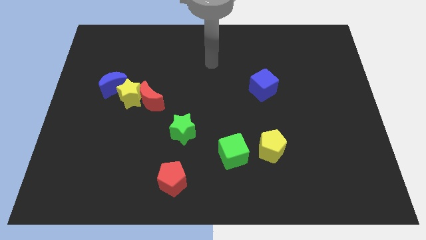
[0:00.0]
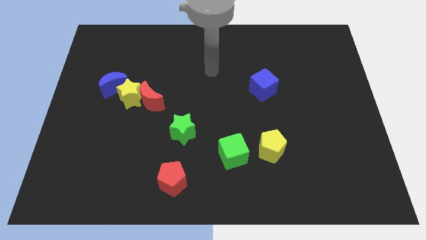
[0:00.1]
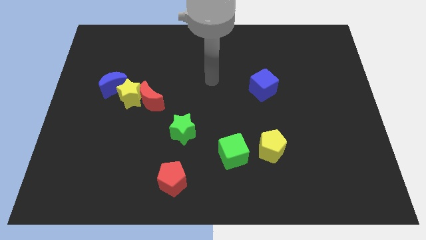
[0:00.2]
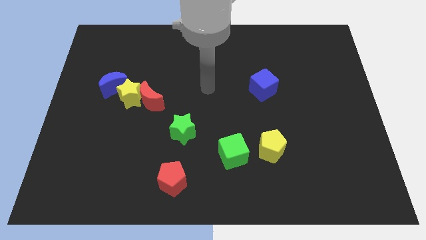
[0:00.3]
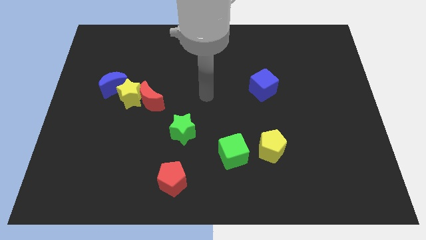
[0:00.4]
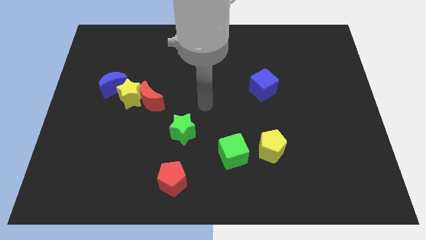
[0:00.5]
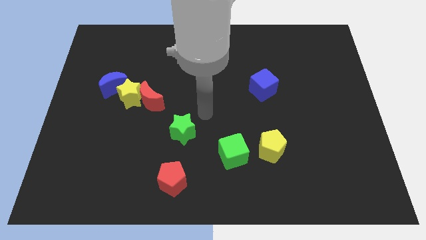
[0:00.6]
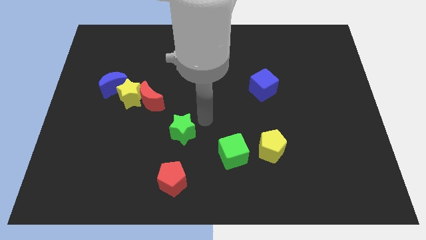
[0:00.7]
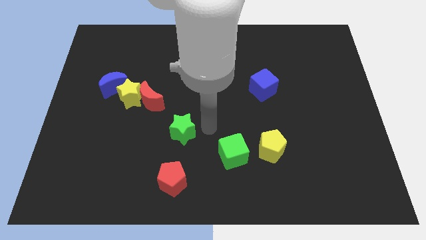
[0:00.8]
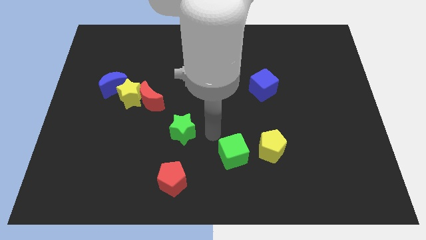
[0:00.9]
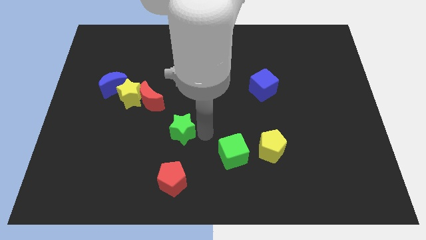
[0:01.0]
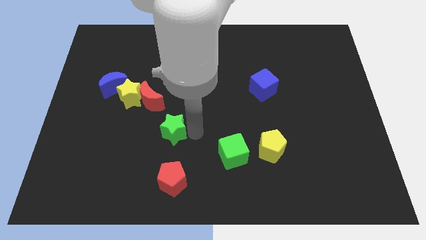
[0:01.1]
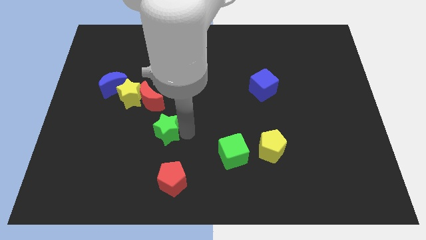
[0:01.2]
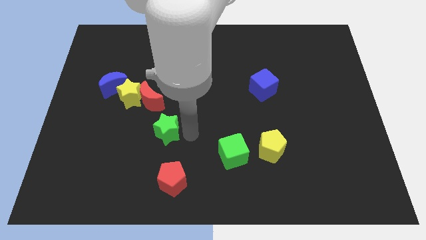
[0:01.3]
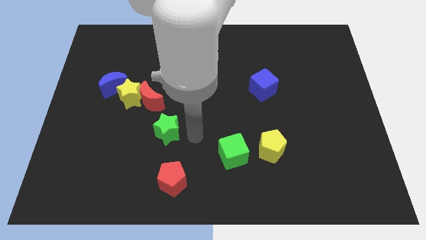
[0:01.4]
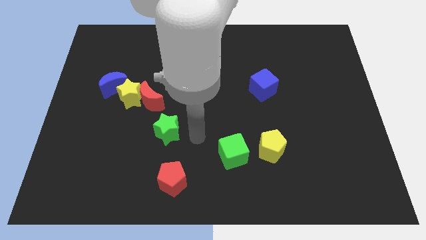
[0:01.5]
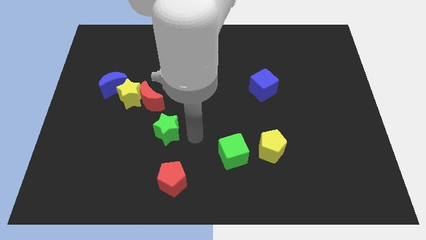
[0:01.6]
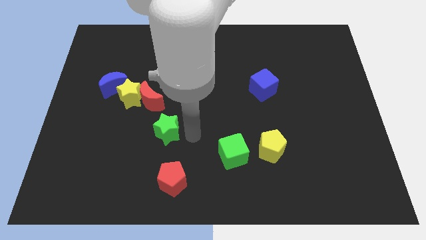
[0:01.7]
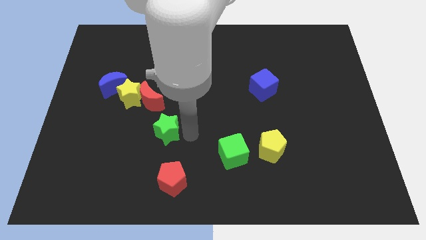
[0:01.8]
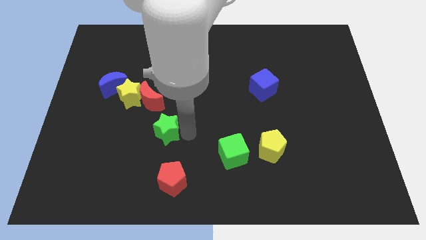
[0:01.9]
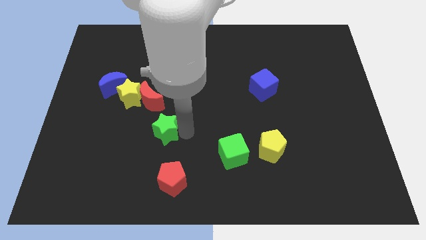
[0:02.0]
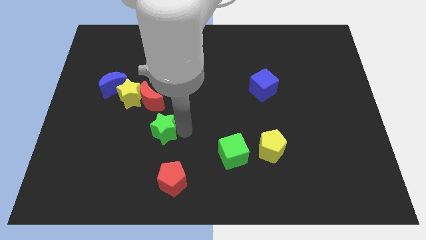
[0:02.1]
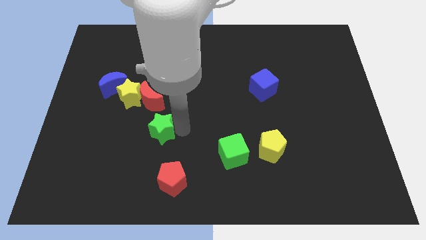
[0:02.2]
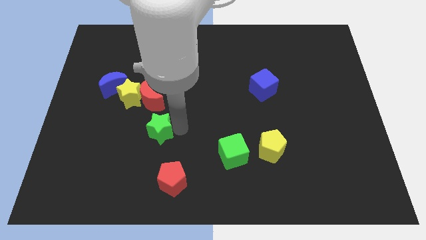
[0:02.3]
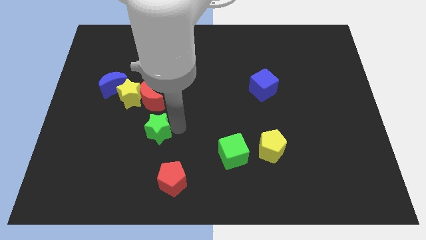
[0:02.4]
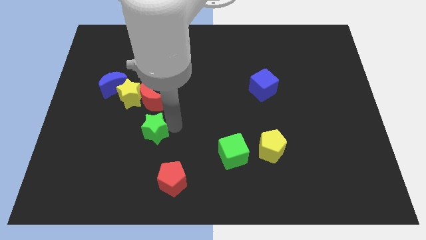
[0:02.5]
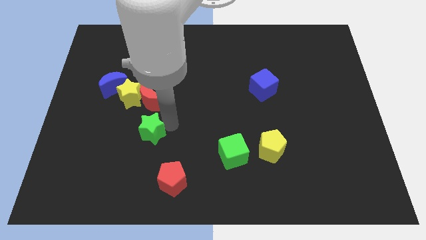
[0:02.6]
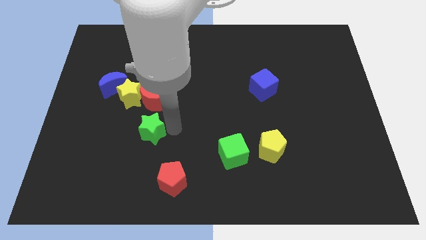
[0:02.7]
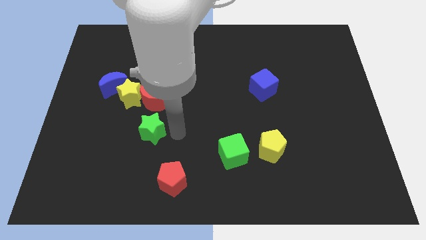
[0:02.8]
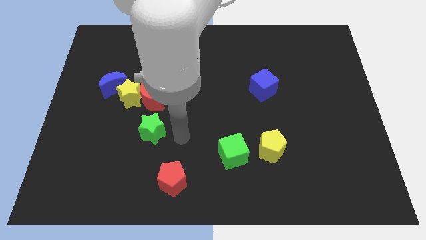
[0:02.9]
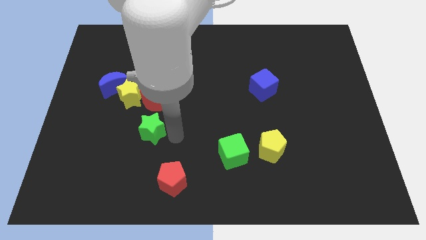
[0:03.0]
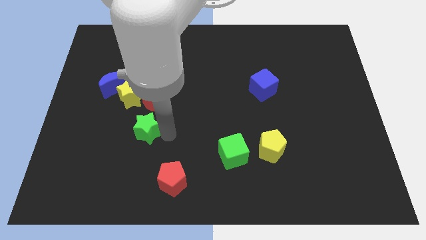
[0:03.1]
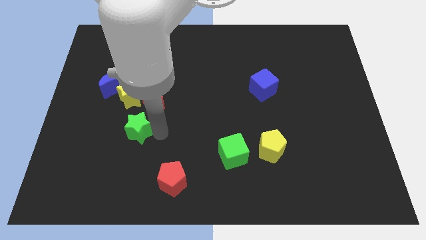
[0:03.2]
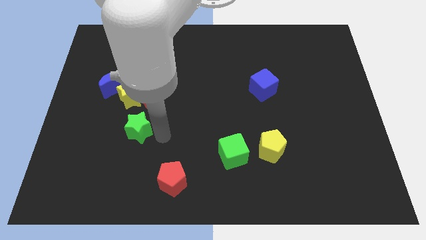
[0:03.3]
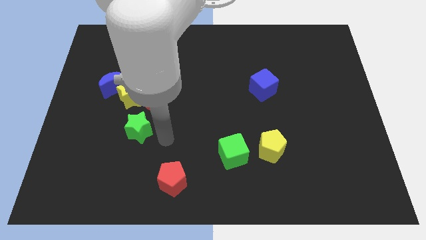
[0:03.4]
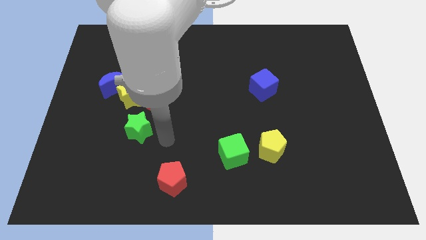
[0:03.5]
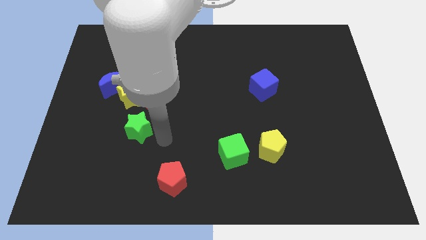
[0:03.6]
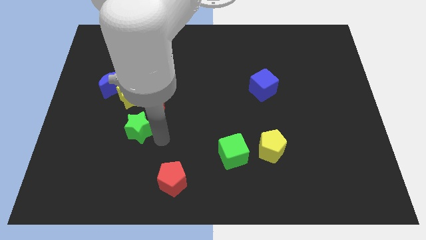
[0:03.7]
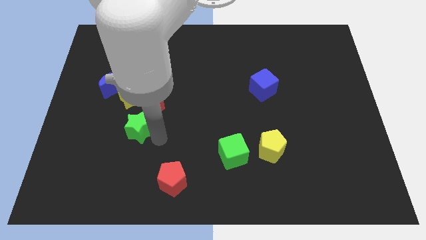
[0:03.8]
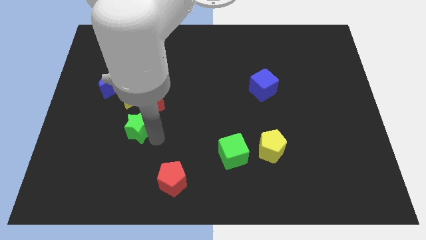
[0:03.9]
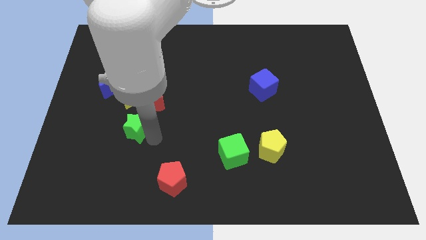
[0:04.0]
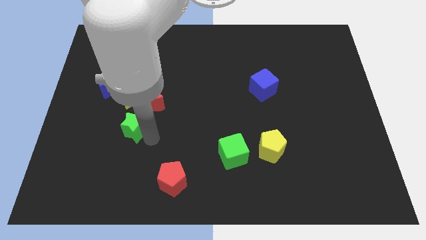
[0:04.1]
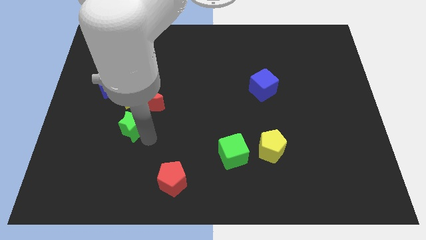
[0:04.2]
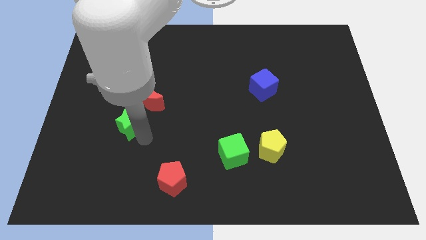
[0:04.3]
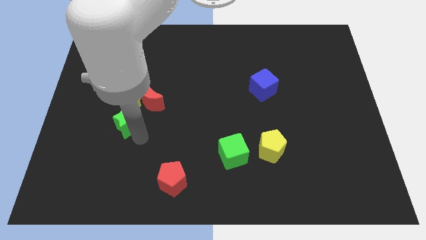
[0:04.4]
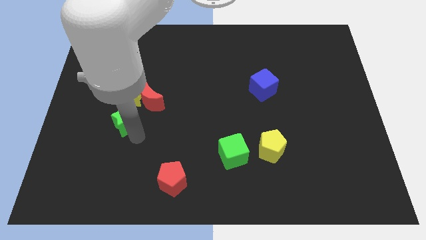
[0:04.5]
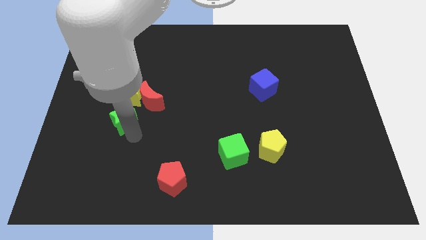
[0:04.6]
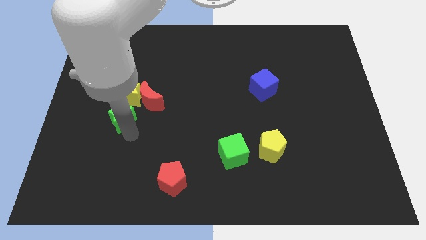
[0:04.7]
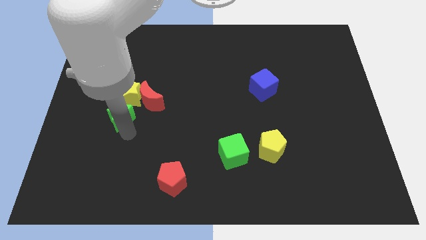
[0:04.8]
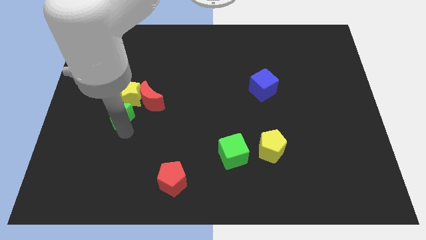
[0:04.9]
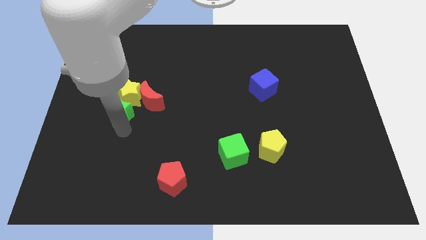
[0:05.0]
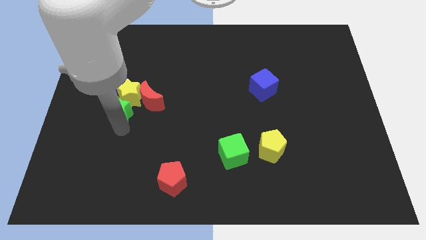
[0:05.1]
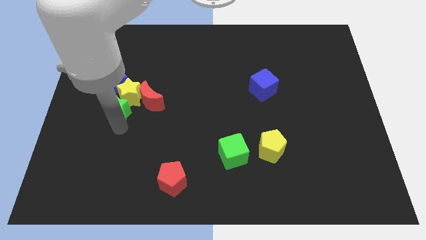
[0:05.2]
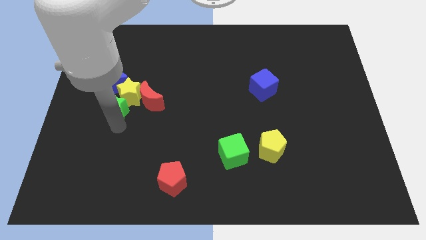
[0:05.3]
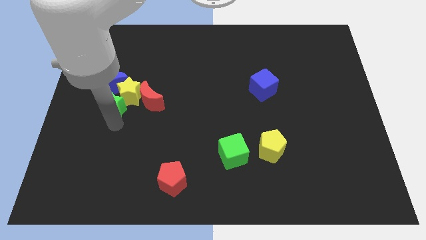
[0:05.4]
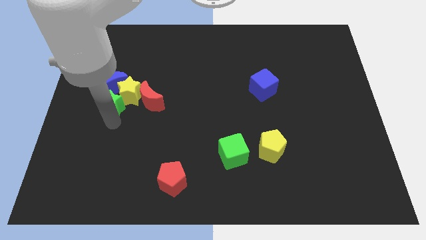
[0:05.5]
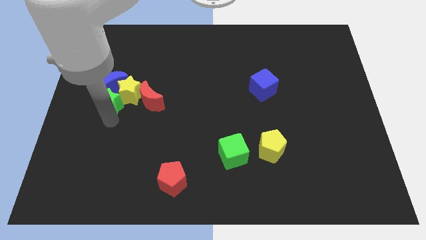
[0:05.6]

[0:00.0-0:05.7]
put the green star close to the blue moon

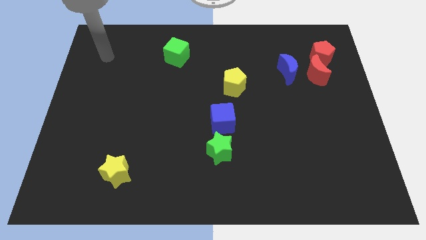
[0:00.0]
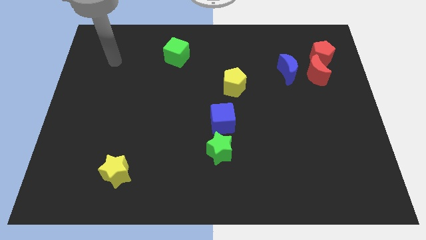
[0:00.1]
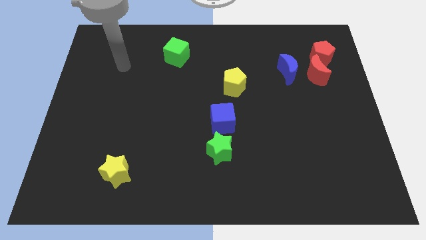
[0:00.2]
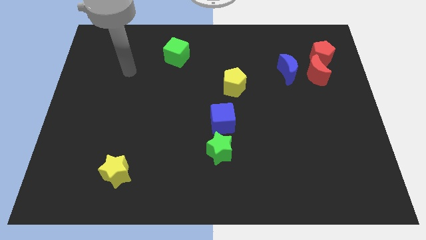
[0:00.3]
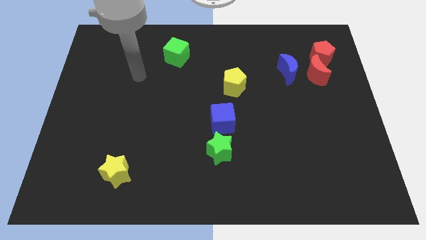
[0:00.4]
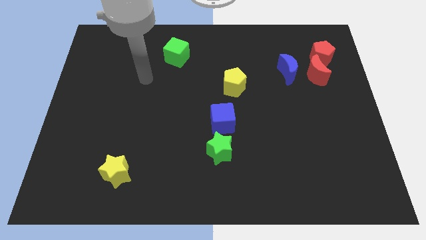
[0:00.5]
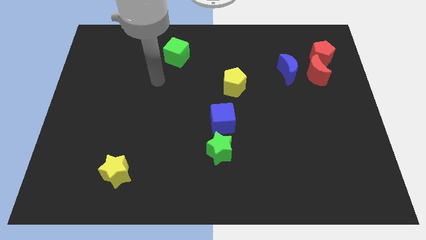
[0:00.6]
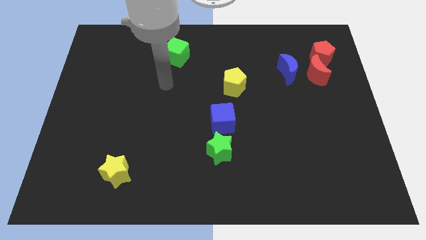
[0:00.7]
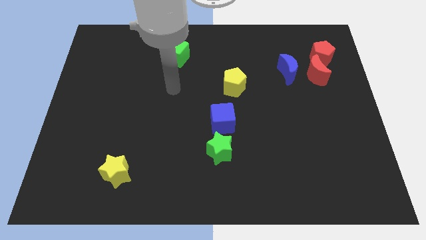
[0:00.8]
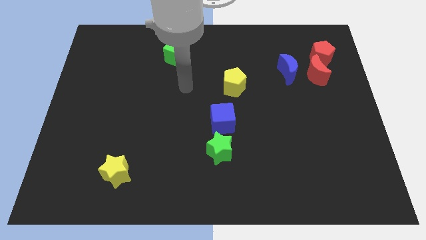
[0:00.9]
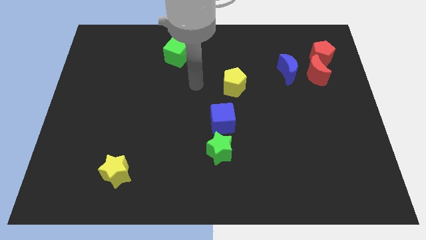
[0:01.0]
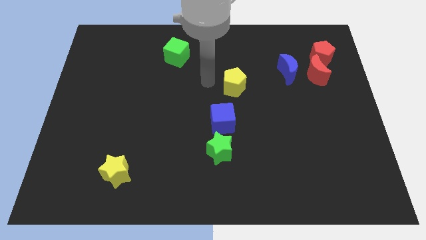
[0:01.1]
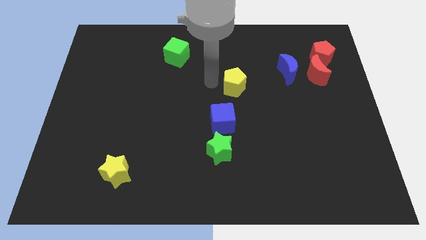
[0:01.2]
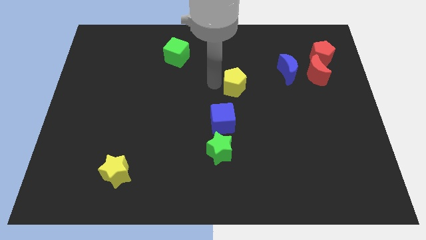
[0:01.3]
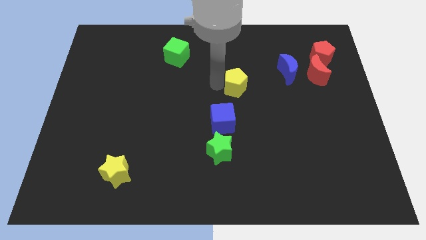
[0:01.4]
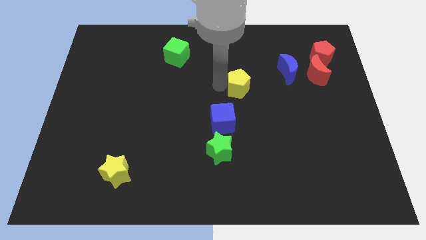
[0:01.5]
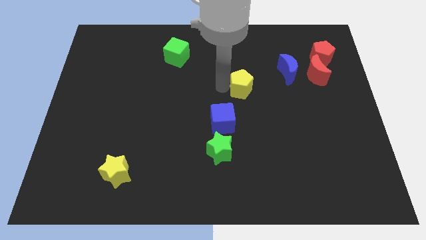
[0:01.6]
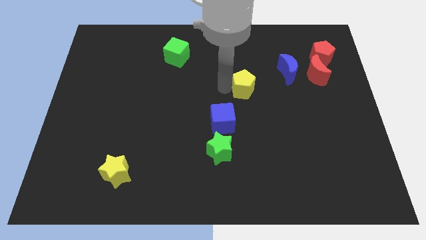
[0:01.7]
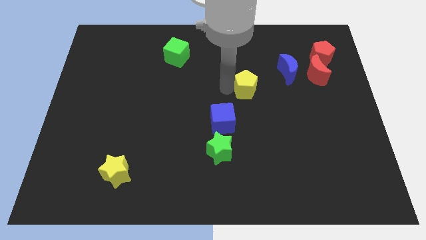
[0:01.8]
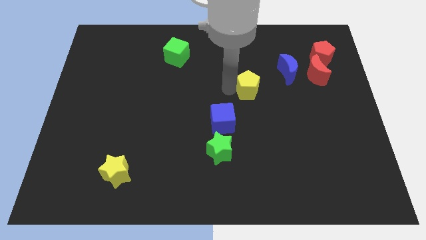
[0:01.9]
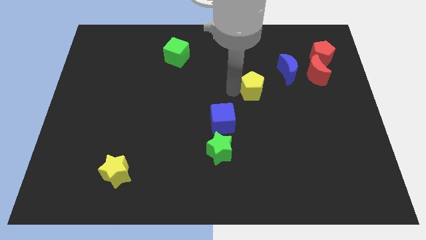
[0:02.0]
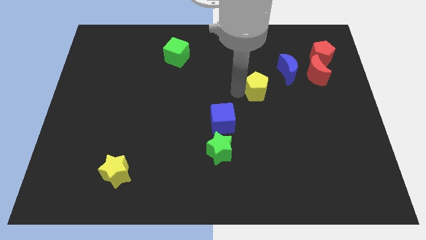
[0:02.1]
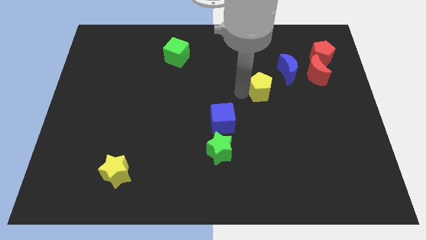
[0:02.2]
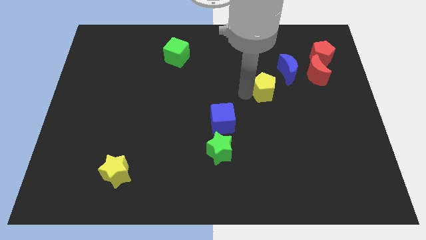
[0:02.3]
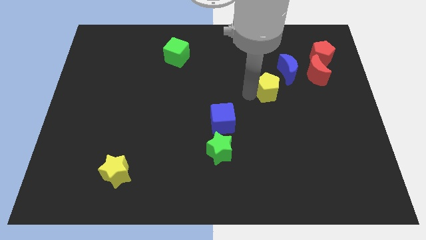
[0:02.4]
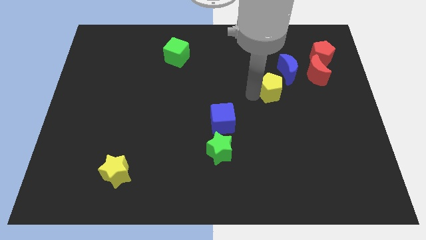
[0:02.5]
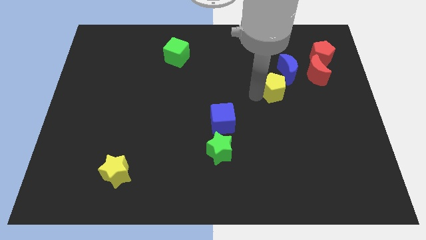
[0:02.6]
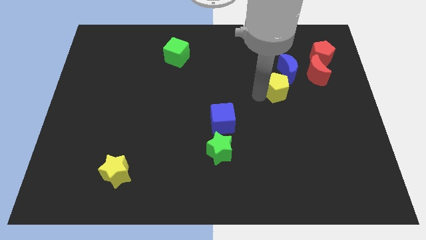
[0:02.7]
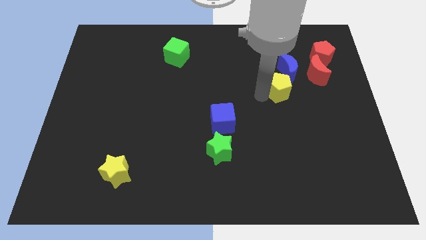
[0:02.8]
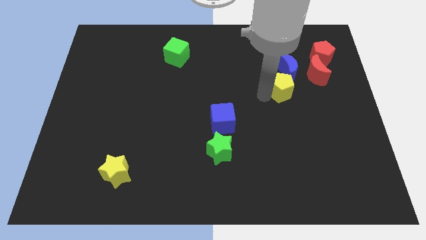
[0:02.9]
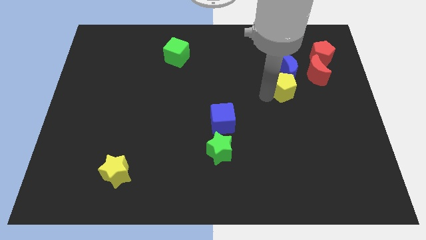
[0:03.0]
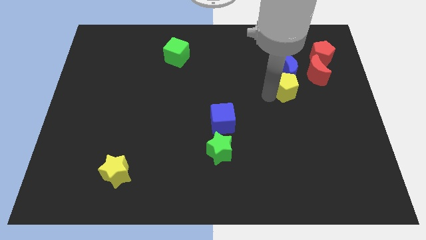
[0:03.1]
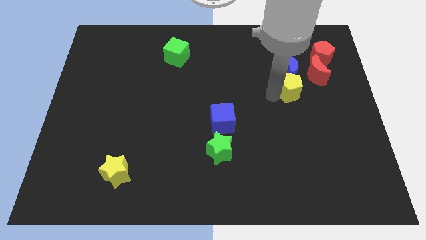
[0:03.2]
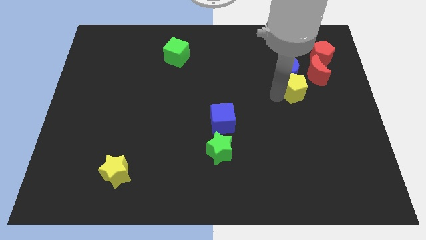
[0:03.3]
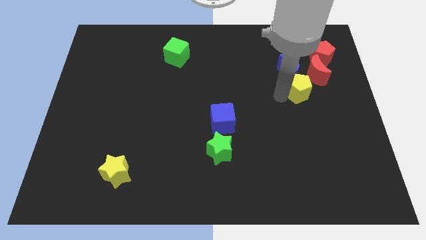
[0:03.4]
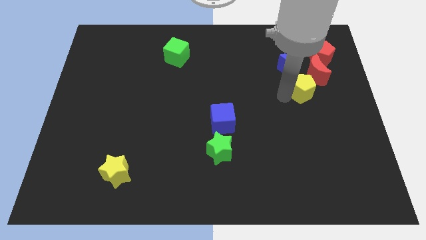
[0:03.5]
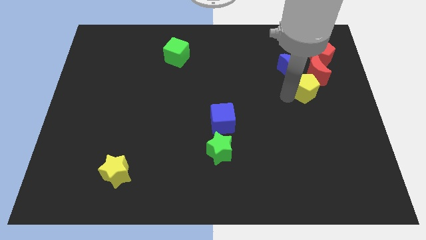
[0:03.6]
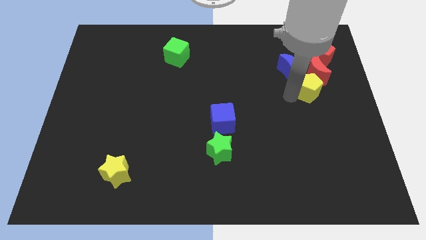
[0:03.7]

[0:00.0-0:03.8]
move the yellow pentagon to the red moon
